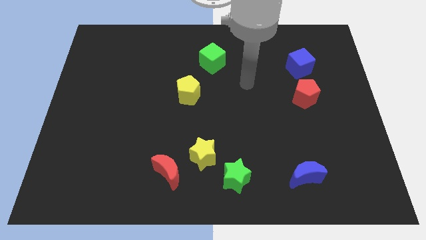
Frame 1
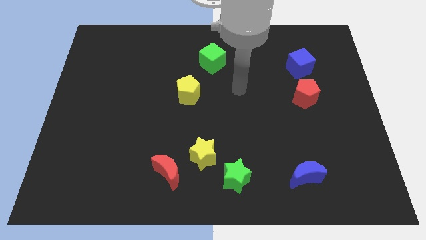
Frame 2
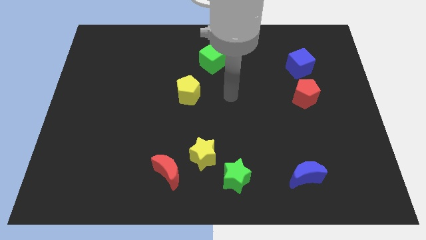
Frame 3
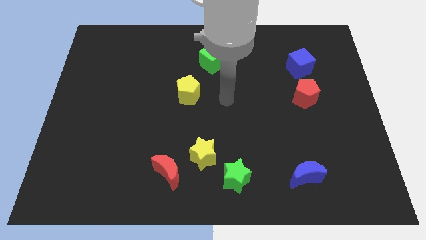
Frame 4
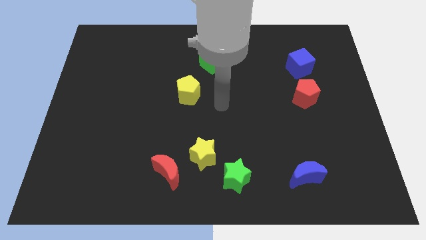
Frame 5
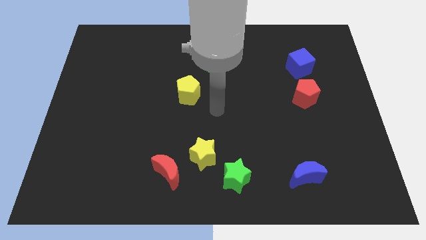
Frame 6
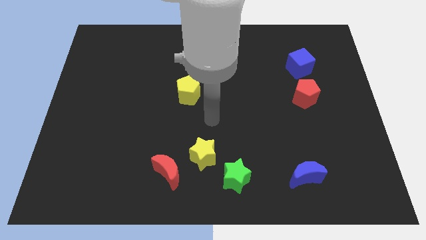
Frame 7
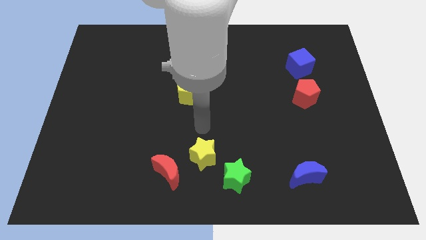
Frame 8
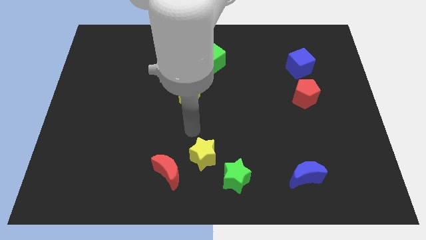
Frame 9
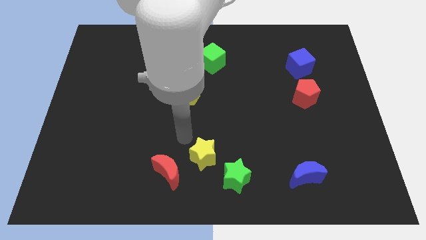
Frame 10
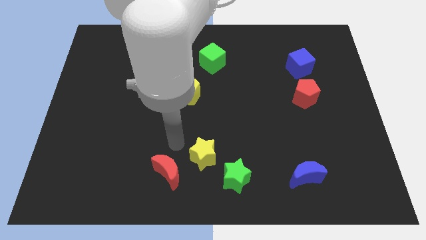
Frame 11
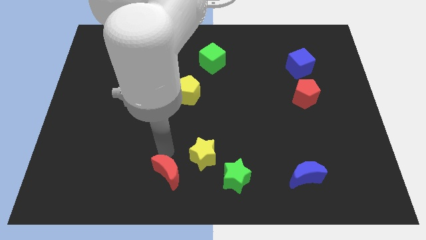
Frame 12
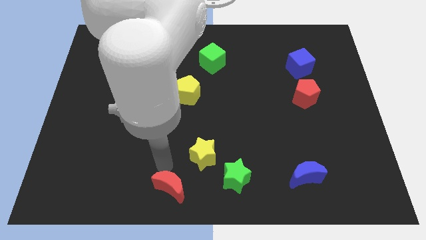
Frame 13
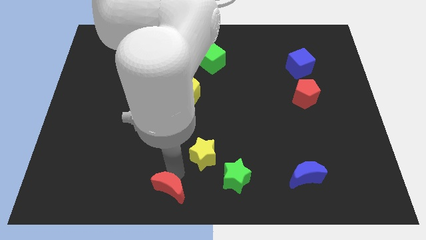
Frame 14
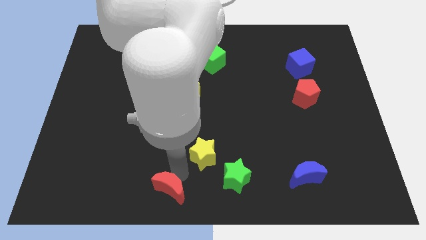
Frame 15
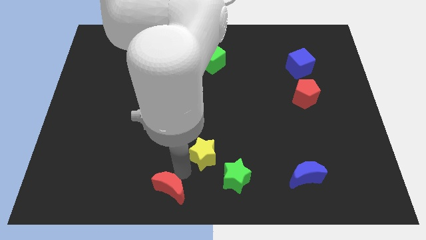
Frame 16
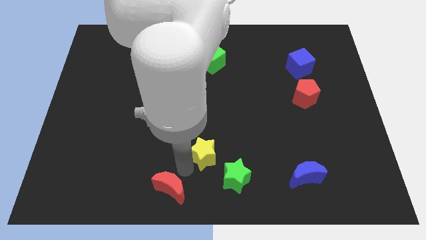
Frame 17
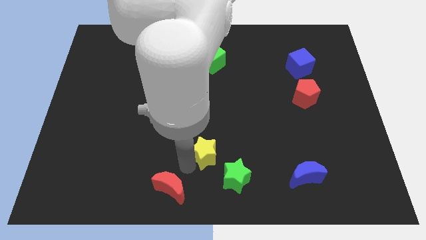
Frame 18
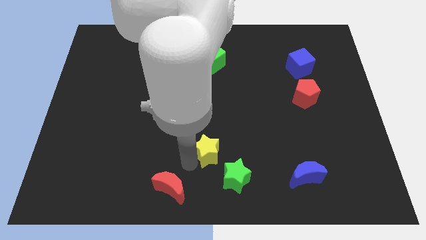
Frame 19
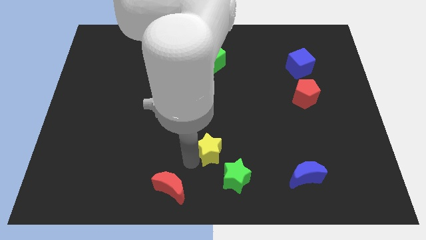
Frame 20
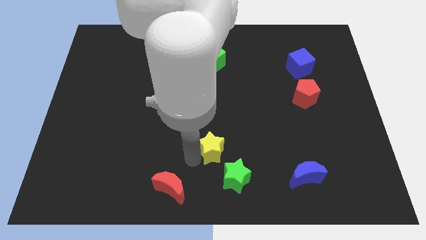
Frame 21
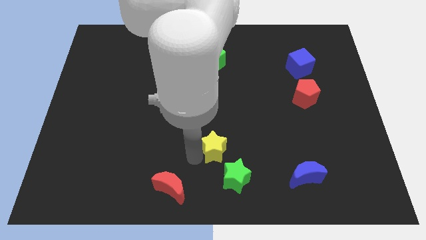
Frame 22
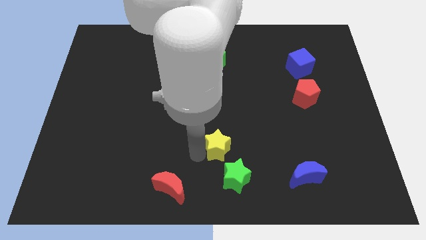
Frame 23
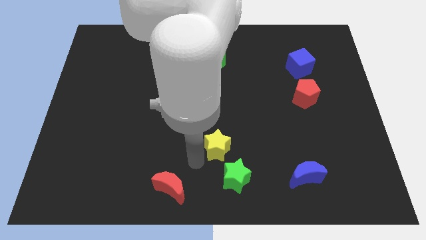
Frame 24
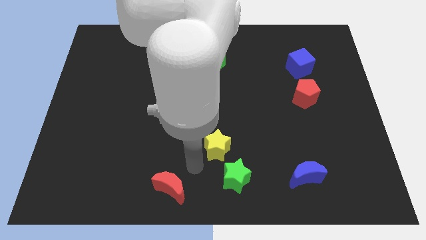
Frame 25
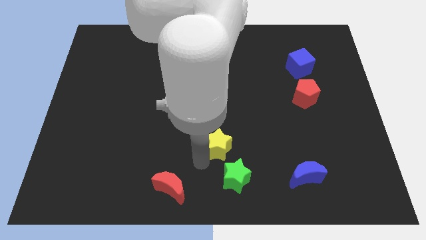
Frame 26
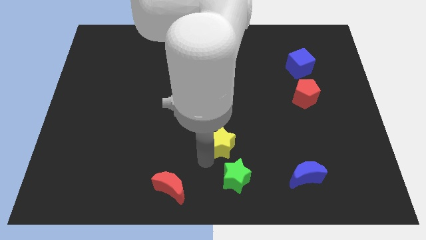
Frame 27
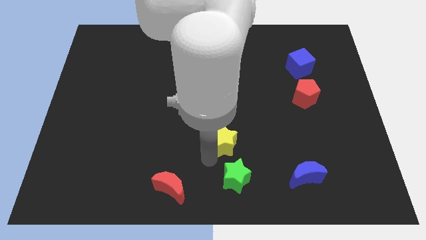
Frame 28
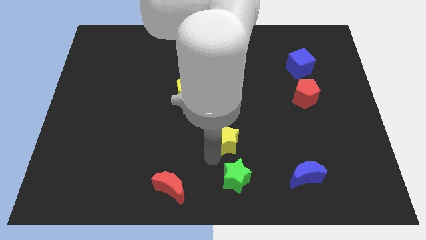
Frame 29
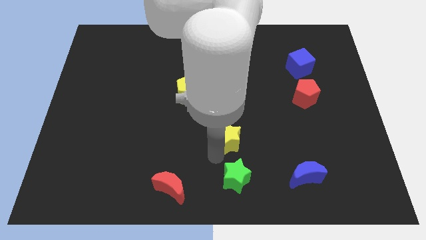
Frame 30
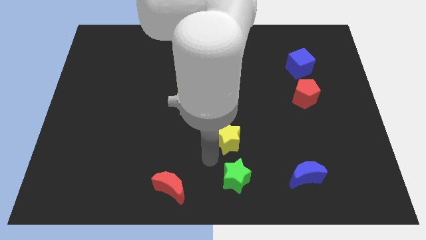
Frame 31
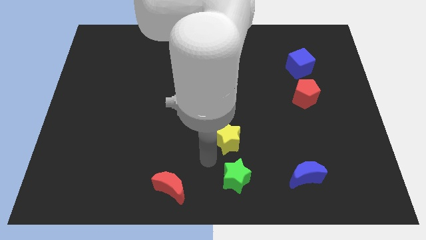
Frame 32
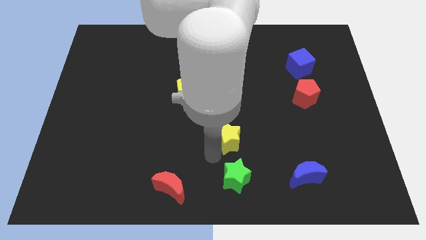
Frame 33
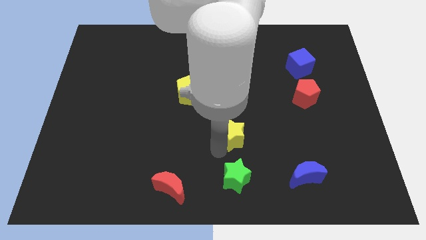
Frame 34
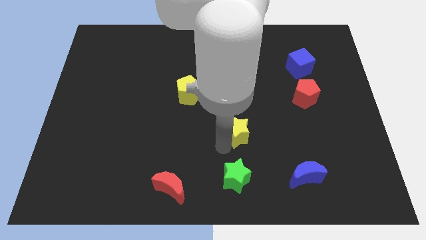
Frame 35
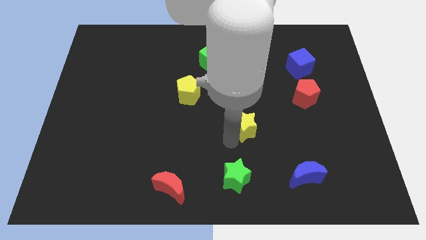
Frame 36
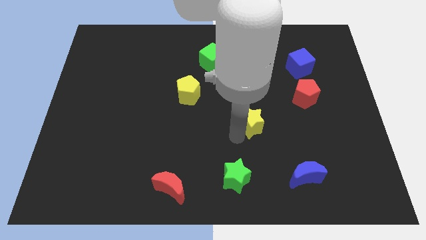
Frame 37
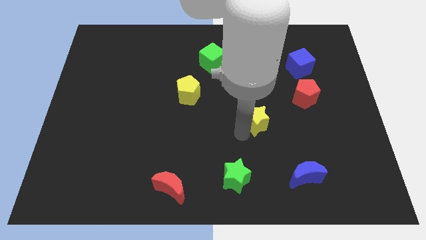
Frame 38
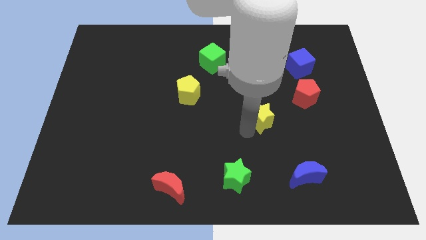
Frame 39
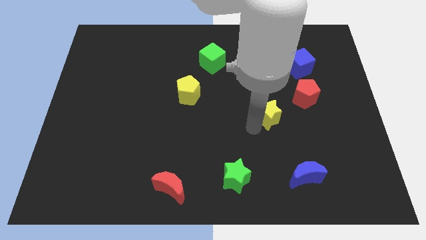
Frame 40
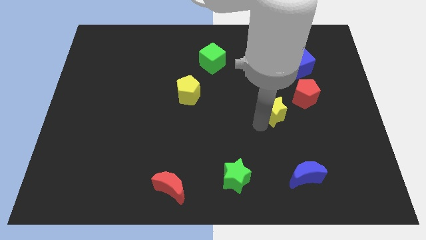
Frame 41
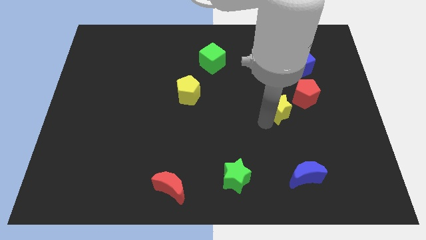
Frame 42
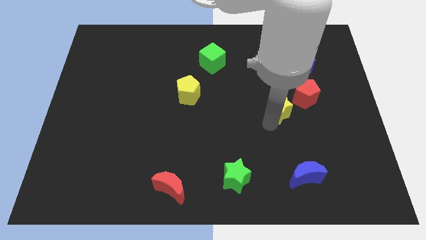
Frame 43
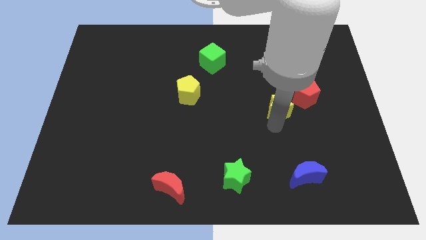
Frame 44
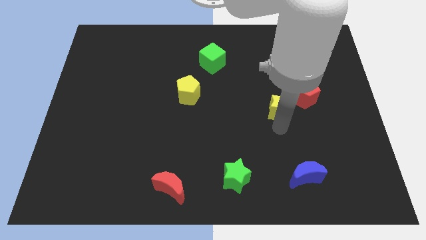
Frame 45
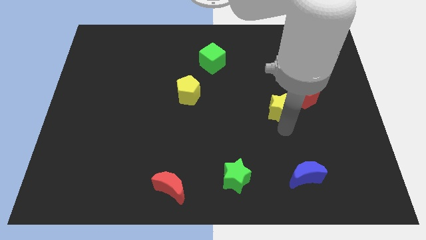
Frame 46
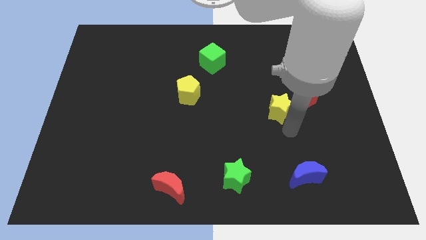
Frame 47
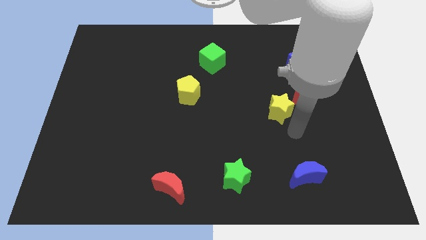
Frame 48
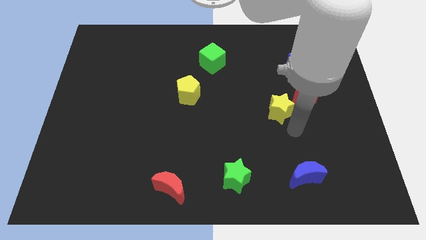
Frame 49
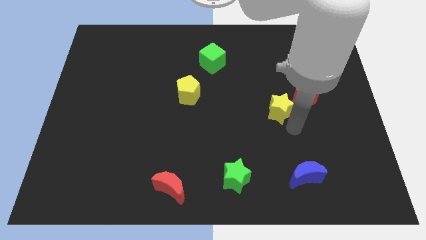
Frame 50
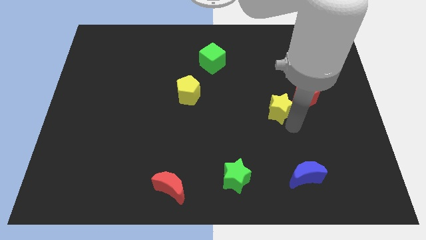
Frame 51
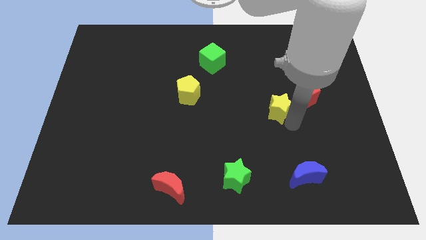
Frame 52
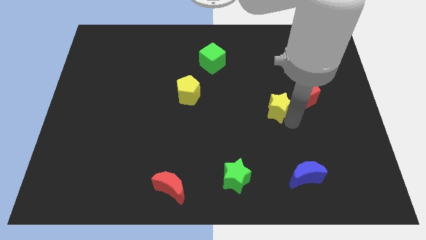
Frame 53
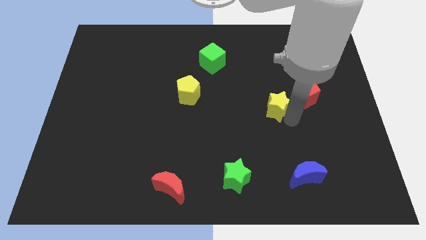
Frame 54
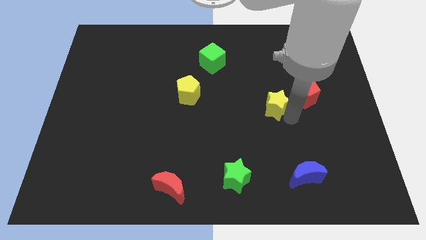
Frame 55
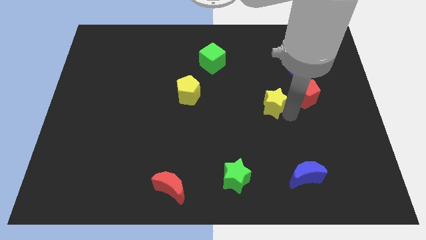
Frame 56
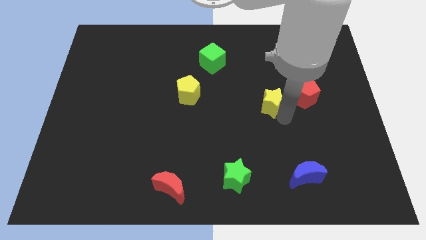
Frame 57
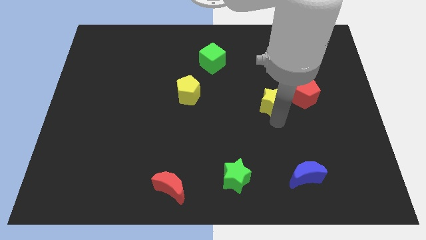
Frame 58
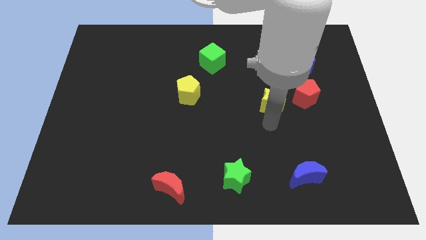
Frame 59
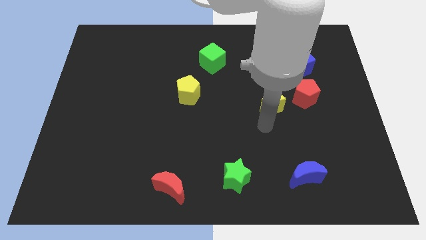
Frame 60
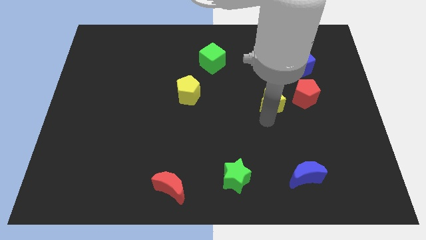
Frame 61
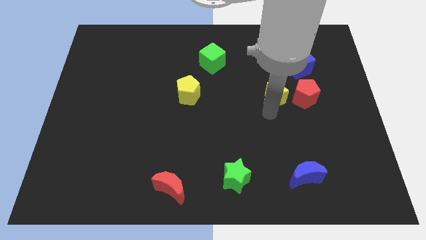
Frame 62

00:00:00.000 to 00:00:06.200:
slide the yellow star to the bottom left side of the blue cube
